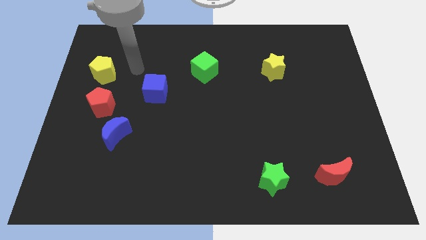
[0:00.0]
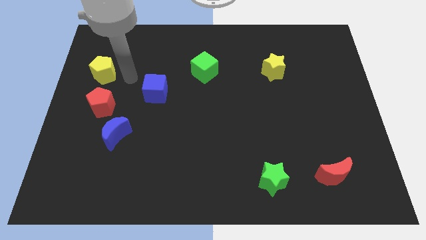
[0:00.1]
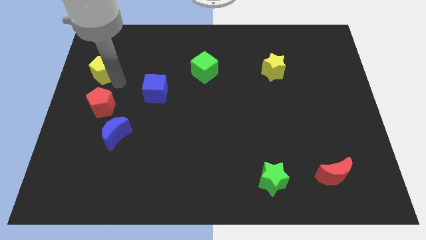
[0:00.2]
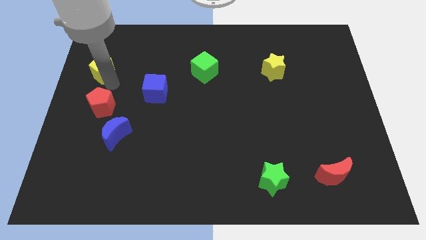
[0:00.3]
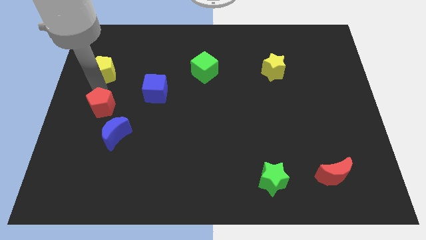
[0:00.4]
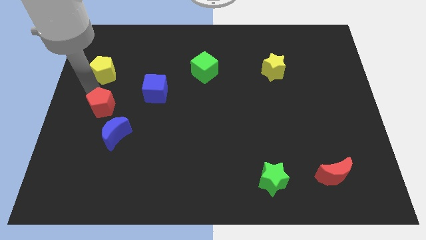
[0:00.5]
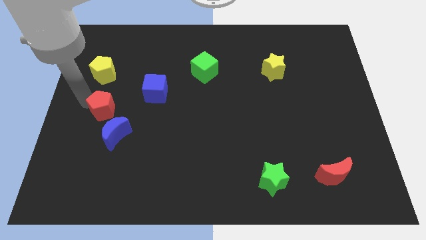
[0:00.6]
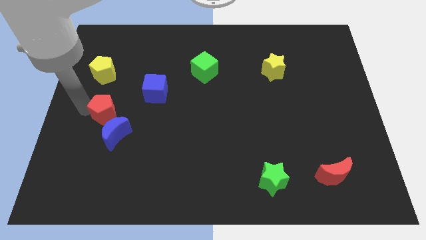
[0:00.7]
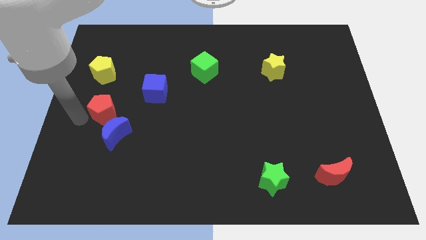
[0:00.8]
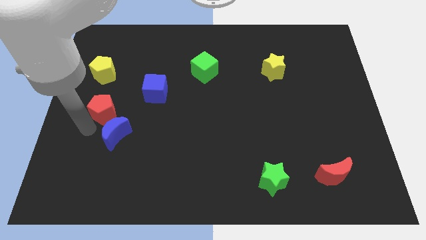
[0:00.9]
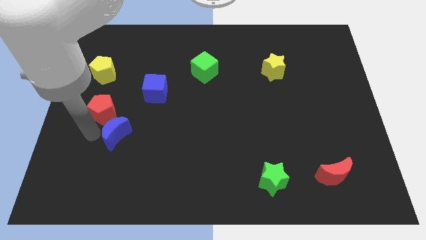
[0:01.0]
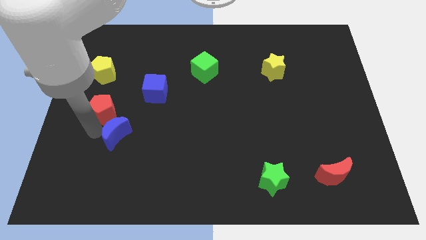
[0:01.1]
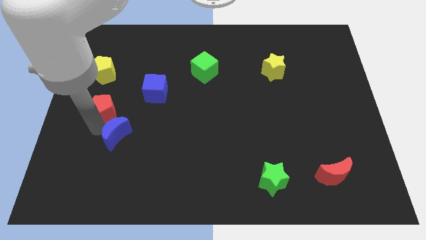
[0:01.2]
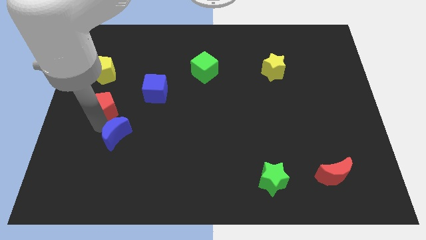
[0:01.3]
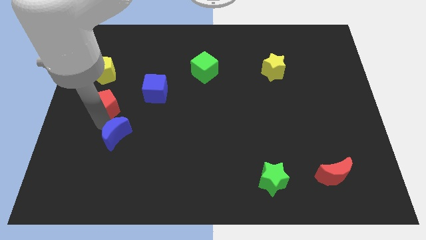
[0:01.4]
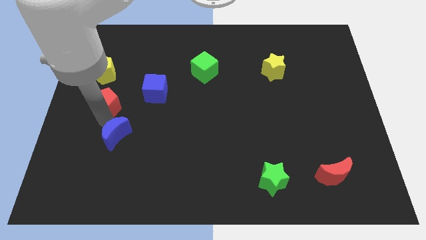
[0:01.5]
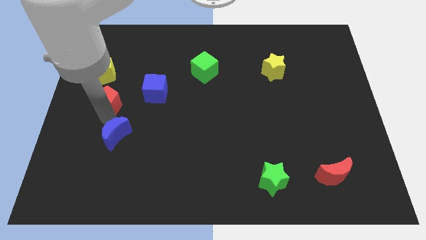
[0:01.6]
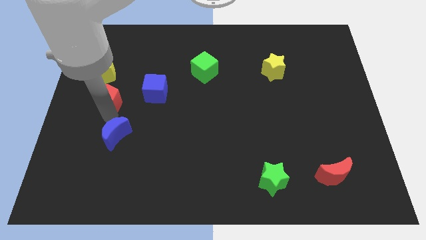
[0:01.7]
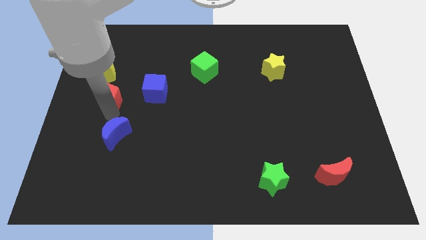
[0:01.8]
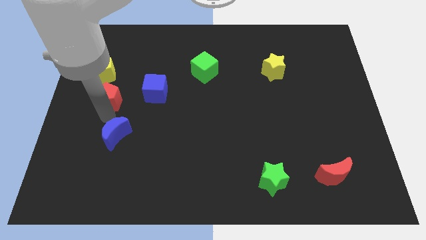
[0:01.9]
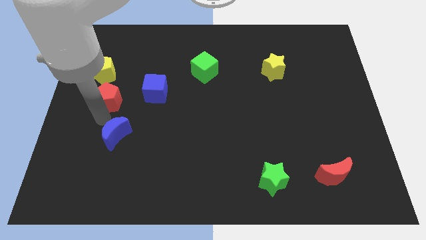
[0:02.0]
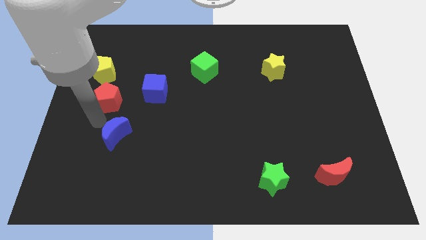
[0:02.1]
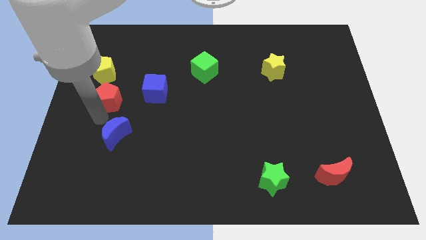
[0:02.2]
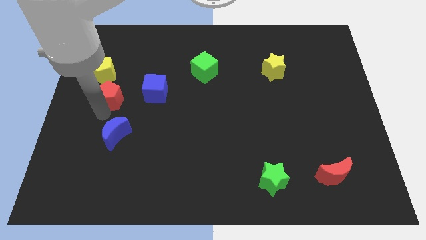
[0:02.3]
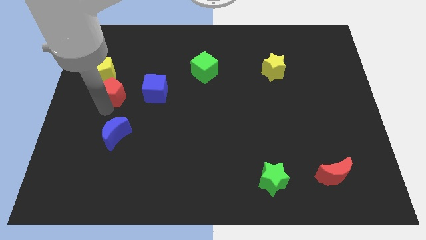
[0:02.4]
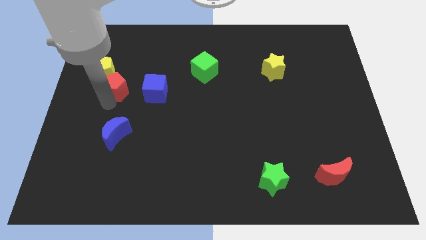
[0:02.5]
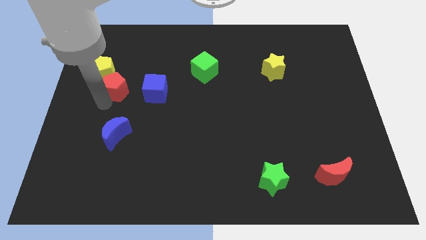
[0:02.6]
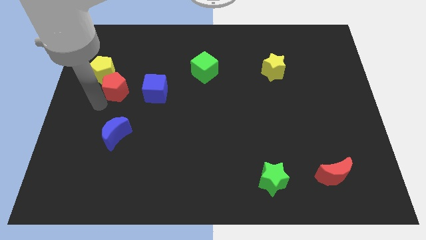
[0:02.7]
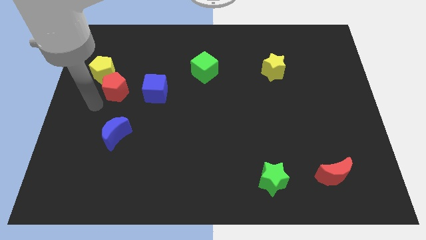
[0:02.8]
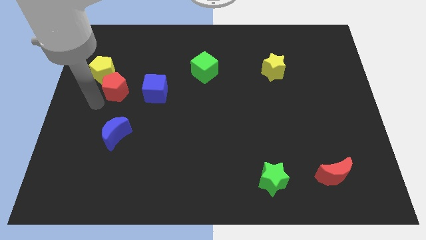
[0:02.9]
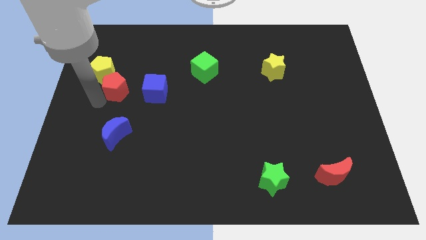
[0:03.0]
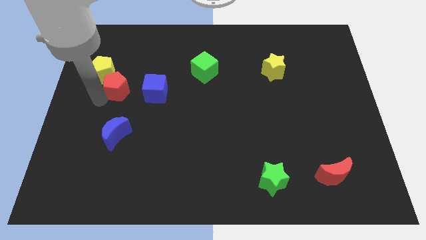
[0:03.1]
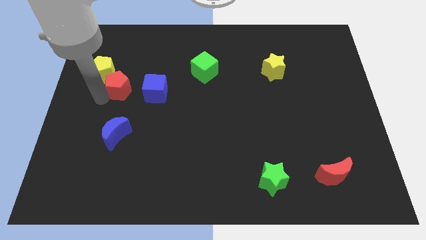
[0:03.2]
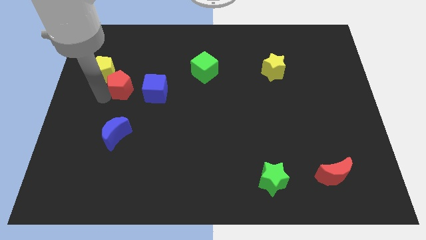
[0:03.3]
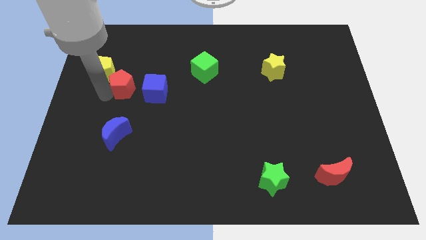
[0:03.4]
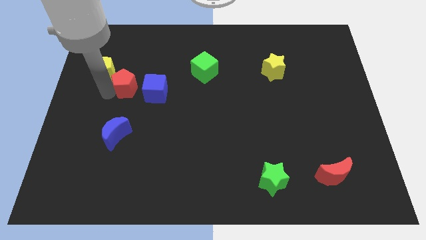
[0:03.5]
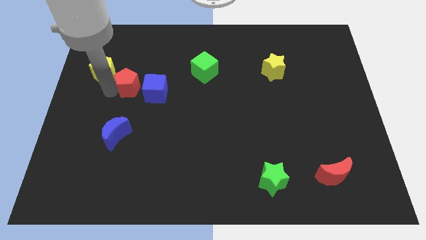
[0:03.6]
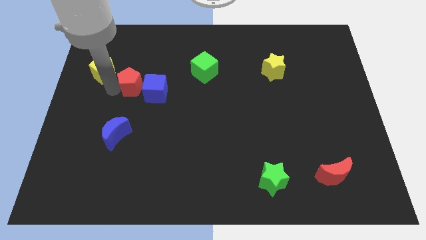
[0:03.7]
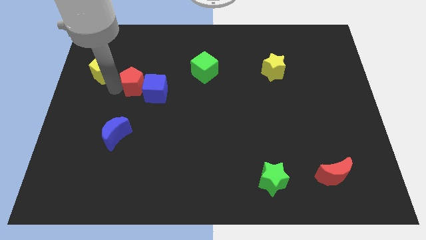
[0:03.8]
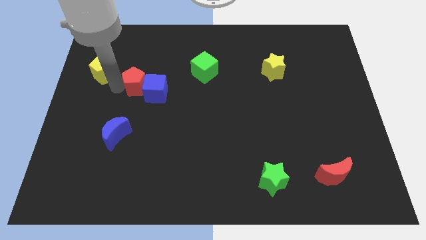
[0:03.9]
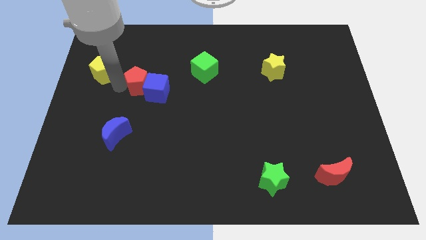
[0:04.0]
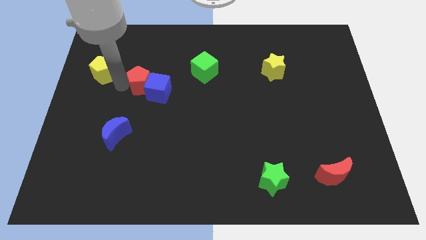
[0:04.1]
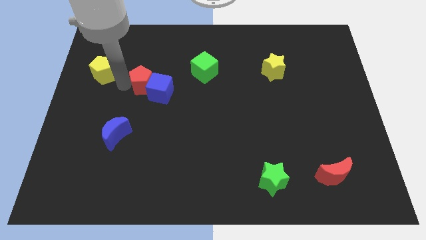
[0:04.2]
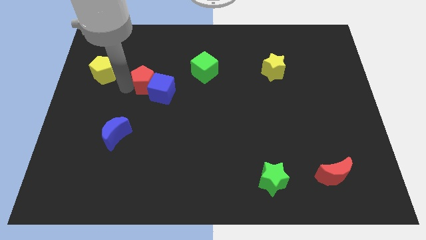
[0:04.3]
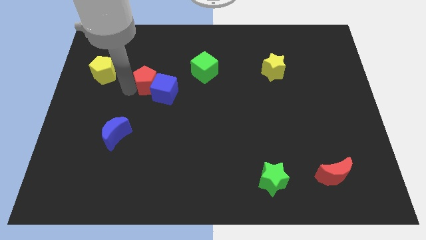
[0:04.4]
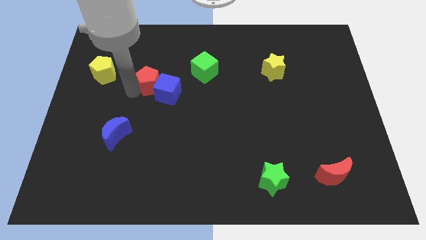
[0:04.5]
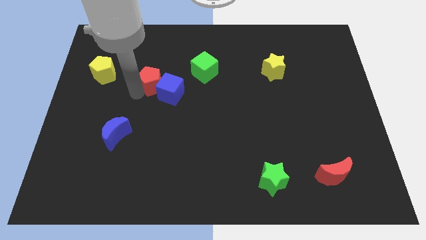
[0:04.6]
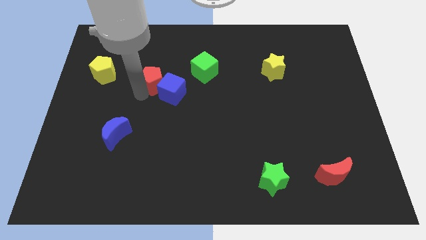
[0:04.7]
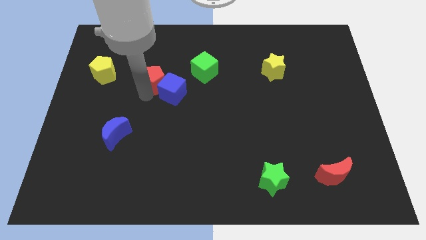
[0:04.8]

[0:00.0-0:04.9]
slide the red pentagon above the blue cube

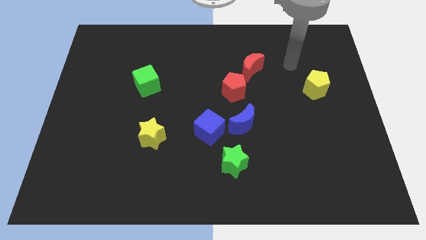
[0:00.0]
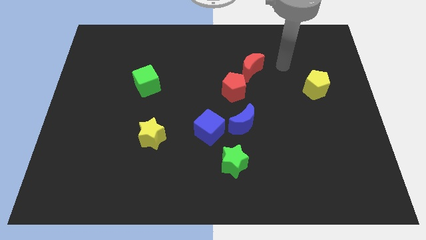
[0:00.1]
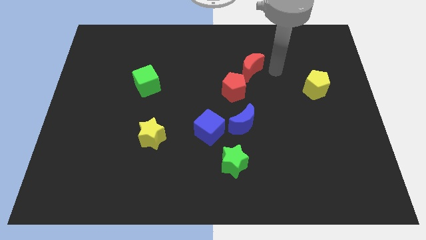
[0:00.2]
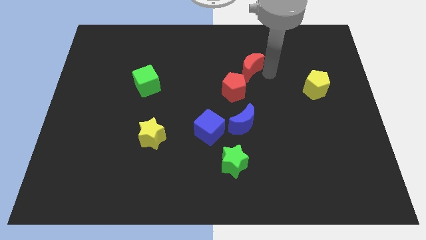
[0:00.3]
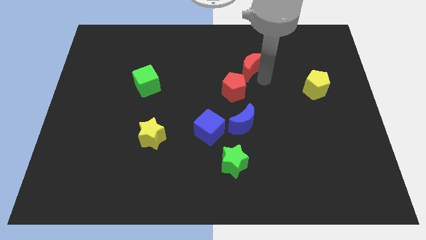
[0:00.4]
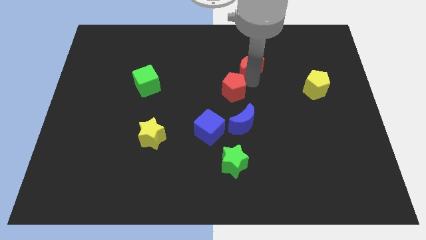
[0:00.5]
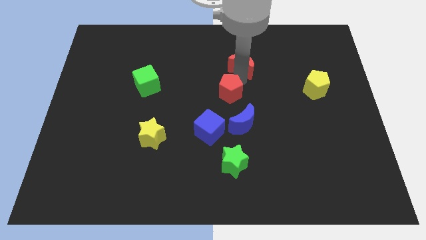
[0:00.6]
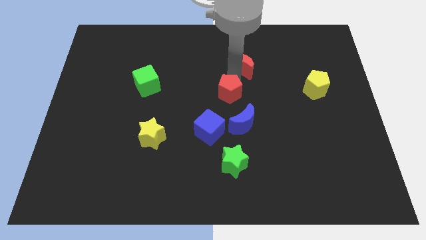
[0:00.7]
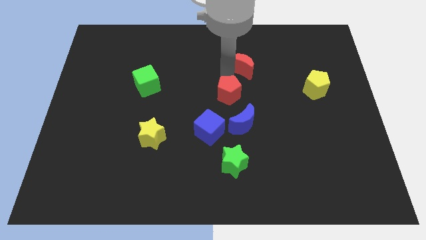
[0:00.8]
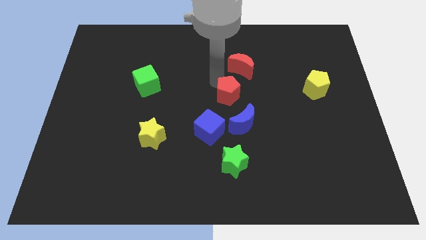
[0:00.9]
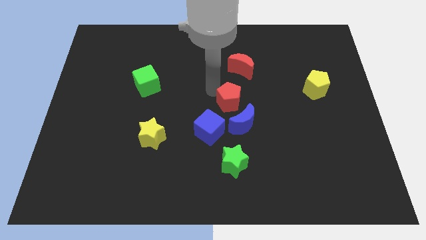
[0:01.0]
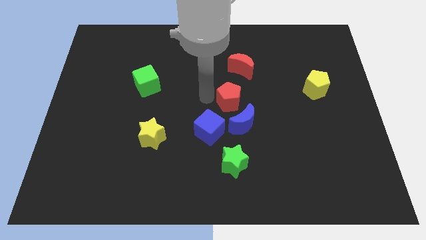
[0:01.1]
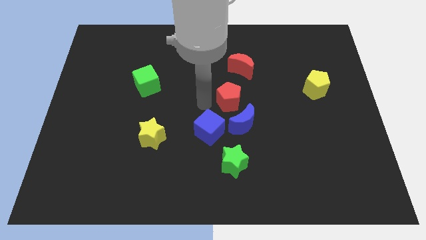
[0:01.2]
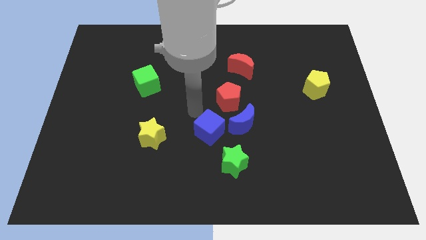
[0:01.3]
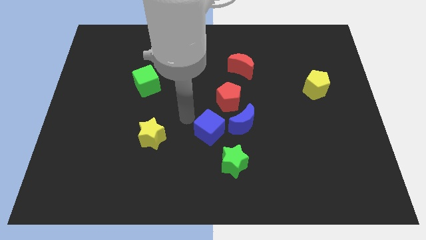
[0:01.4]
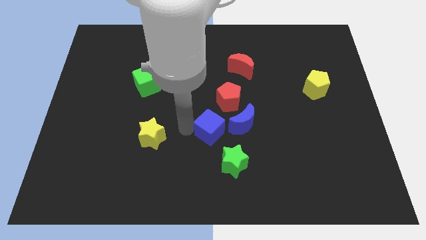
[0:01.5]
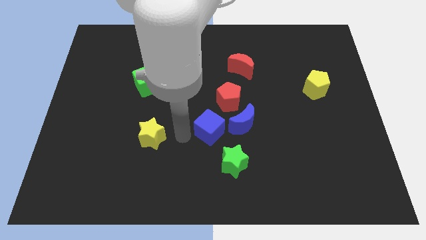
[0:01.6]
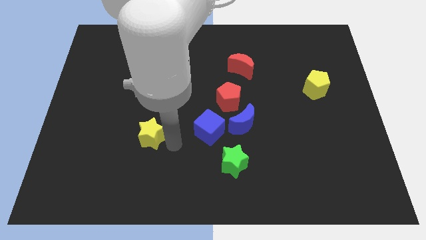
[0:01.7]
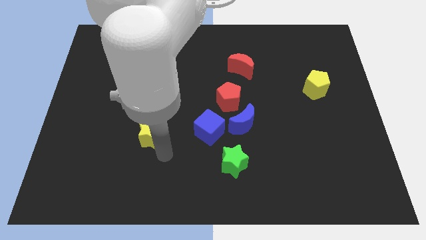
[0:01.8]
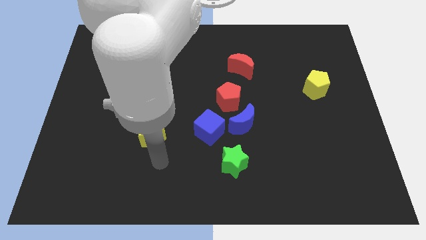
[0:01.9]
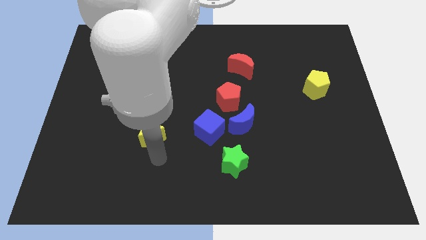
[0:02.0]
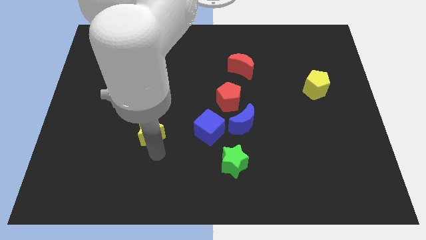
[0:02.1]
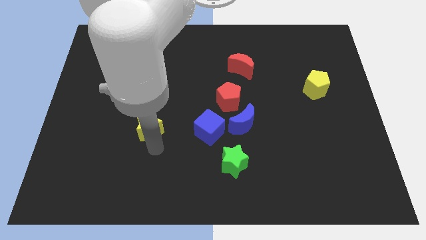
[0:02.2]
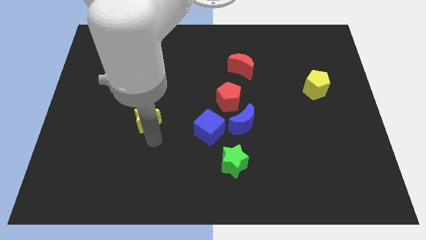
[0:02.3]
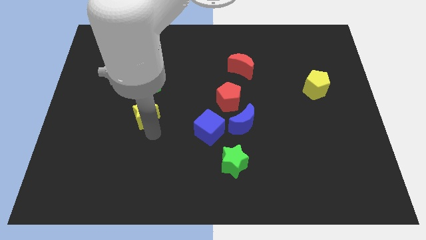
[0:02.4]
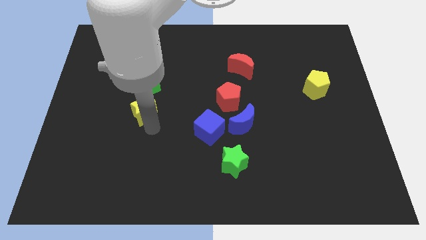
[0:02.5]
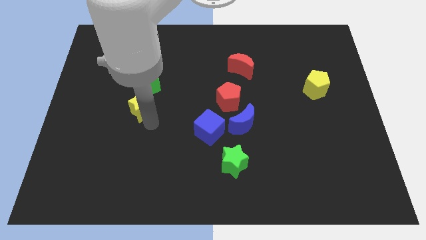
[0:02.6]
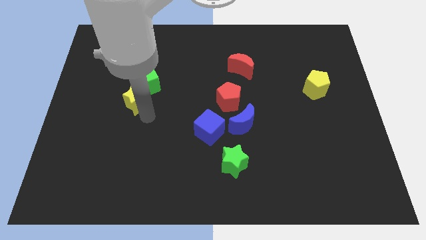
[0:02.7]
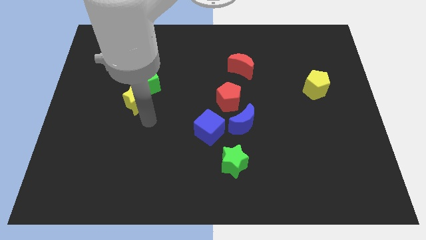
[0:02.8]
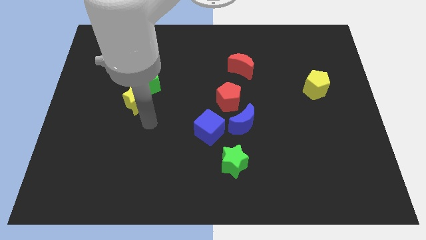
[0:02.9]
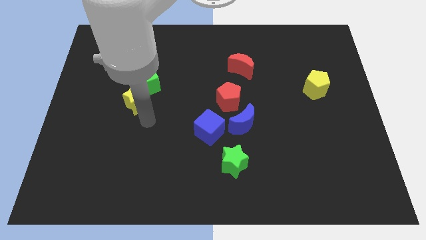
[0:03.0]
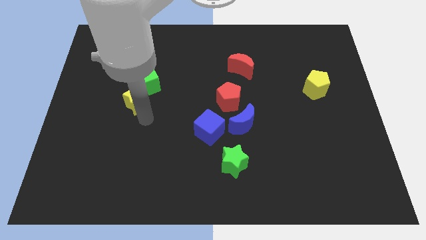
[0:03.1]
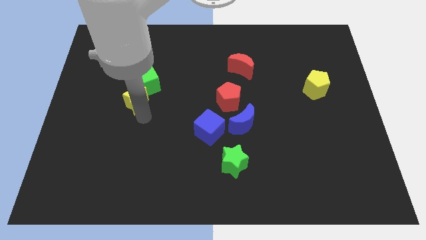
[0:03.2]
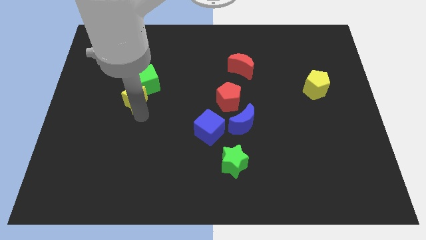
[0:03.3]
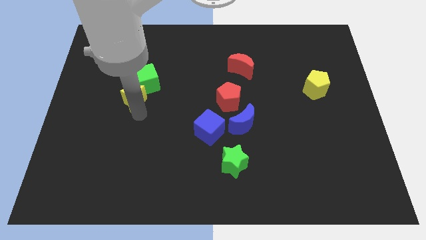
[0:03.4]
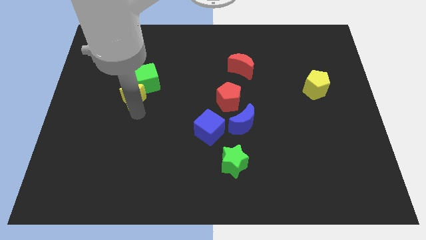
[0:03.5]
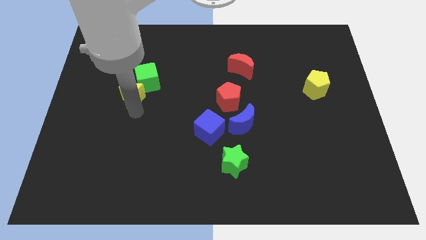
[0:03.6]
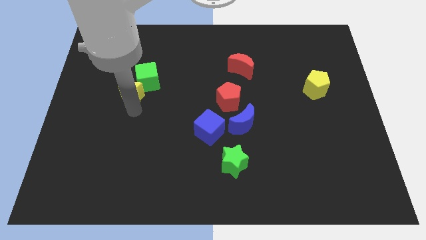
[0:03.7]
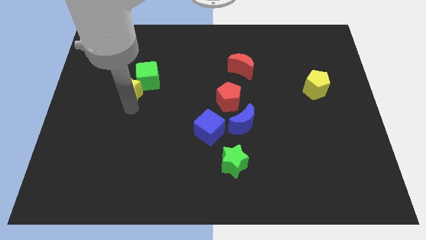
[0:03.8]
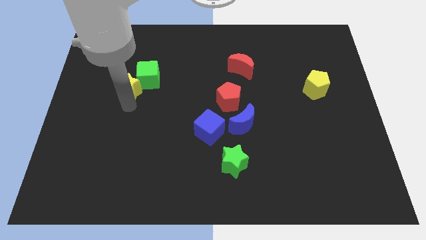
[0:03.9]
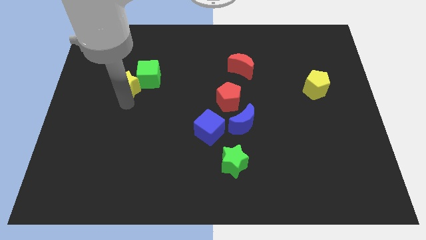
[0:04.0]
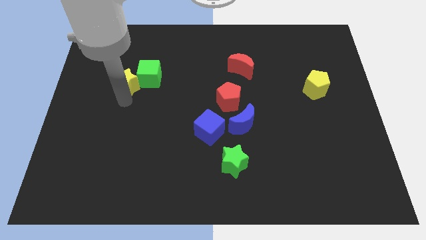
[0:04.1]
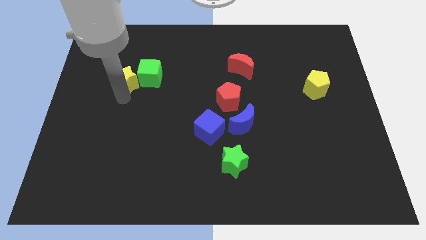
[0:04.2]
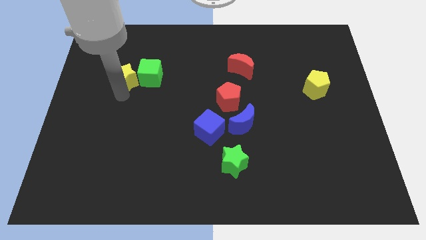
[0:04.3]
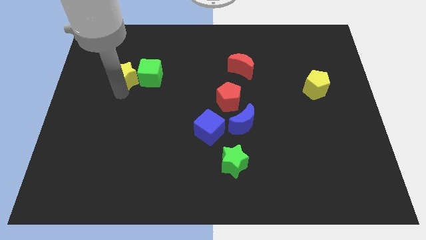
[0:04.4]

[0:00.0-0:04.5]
push the yellow star diagonally up and to the left of the green cube
